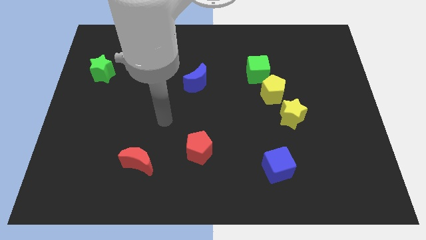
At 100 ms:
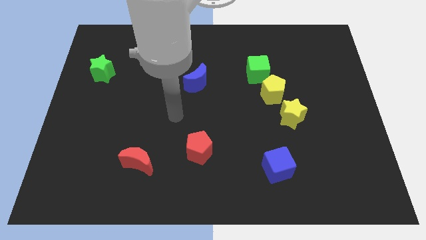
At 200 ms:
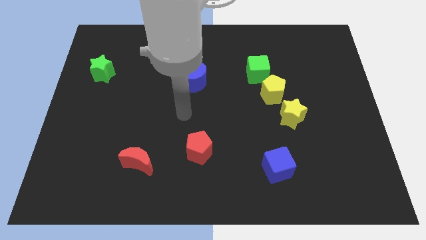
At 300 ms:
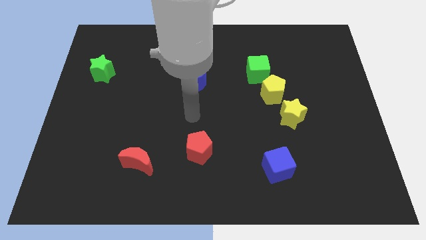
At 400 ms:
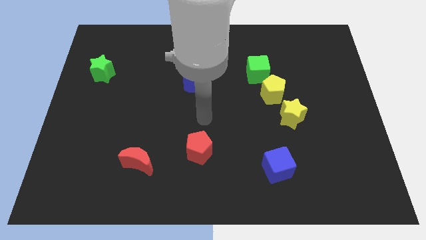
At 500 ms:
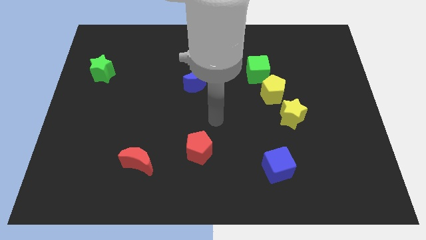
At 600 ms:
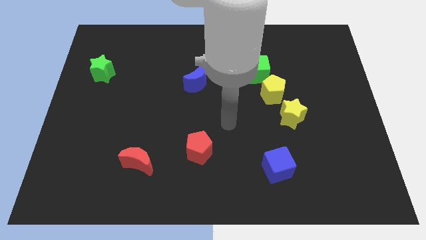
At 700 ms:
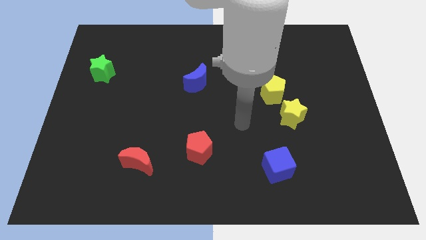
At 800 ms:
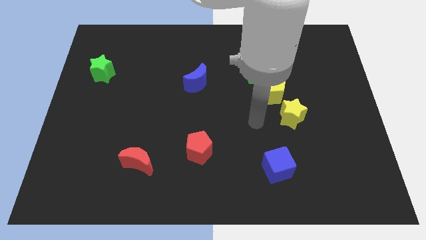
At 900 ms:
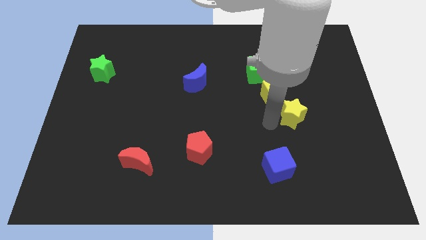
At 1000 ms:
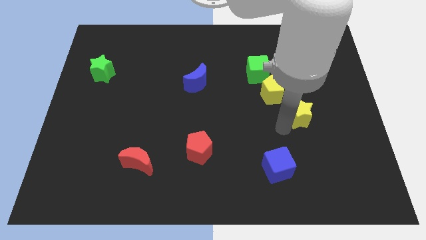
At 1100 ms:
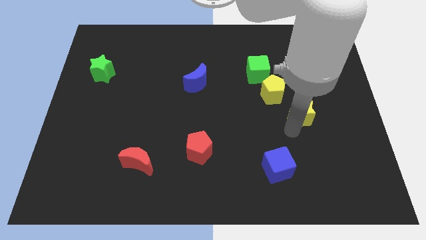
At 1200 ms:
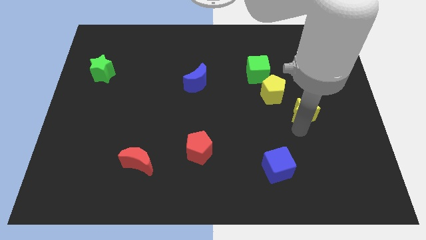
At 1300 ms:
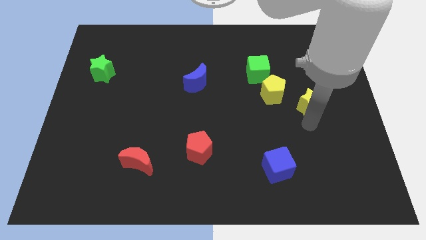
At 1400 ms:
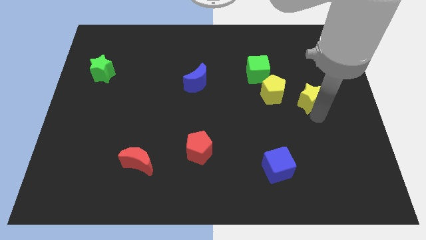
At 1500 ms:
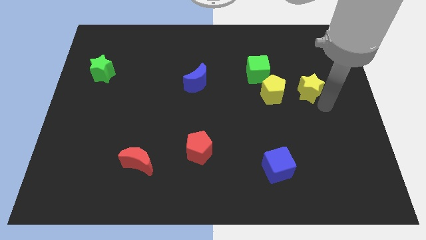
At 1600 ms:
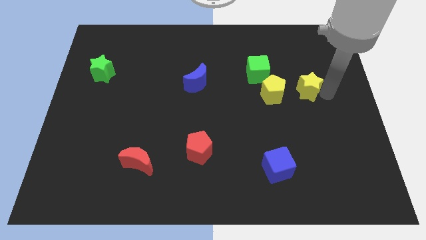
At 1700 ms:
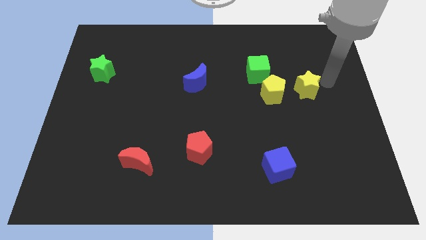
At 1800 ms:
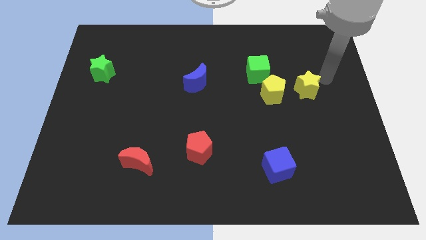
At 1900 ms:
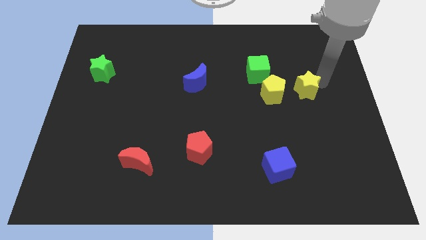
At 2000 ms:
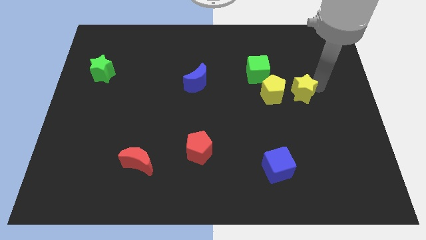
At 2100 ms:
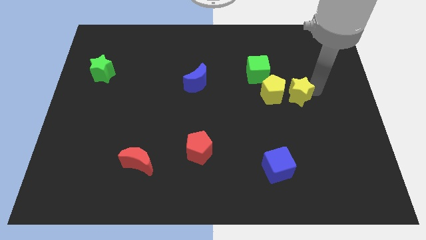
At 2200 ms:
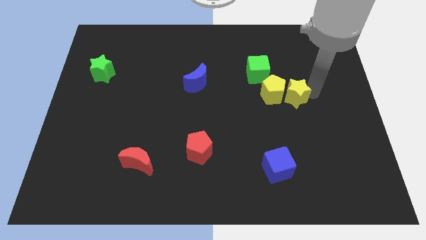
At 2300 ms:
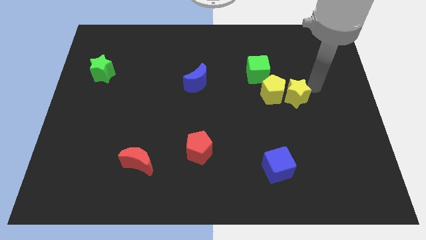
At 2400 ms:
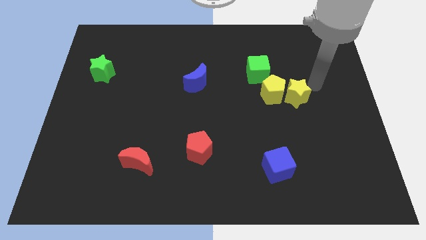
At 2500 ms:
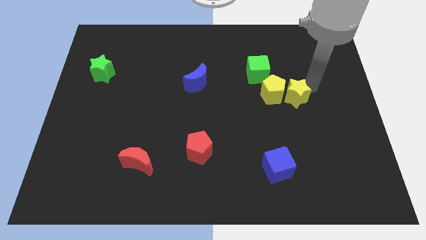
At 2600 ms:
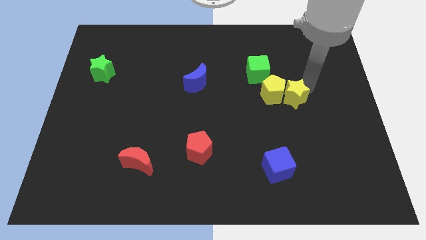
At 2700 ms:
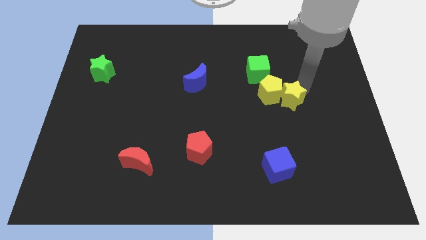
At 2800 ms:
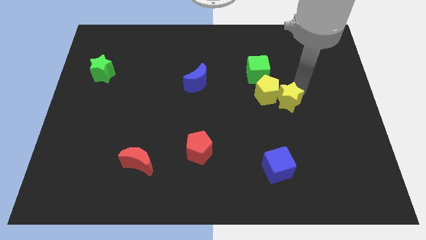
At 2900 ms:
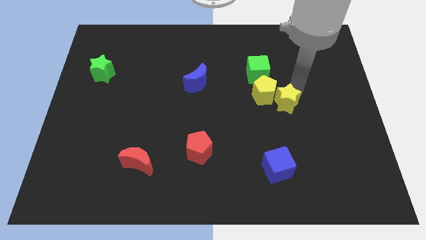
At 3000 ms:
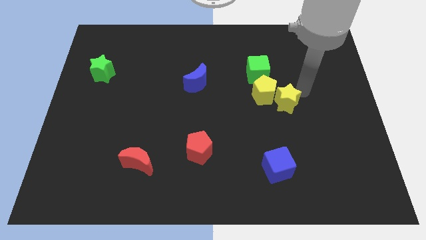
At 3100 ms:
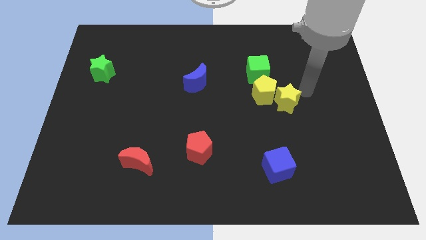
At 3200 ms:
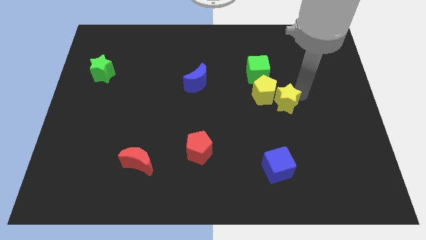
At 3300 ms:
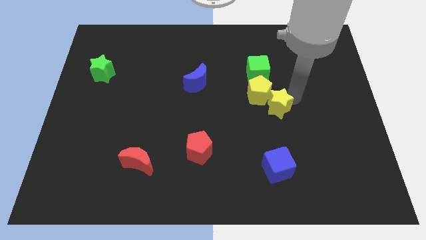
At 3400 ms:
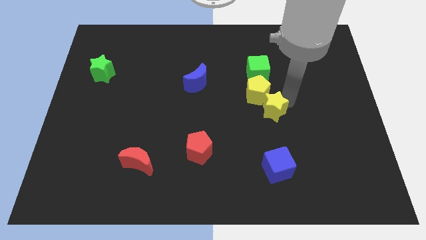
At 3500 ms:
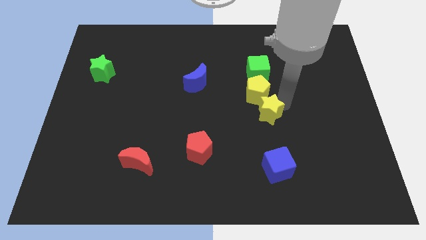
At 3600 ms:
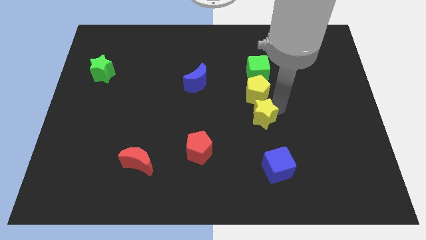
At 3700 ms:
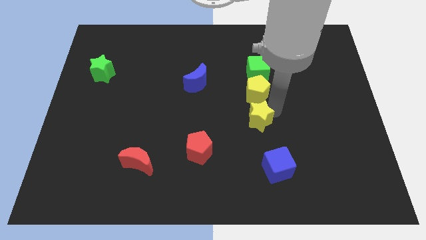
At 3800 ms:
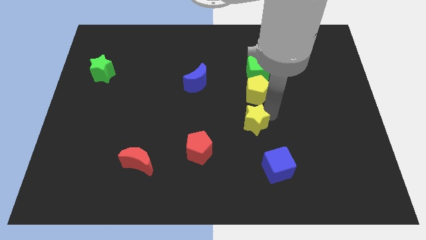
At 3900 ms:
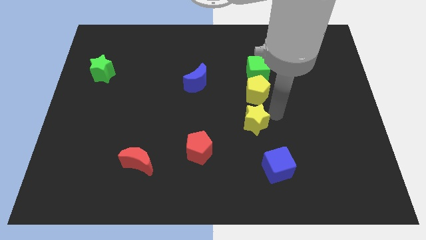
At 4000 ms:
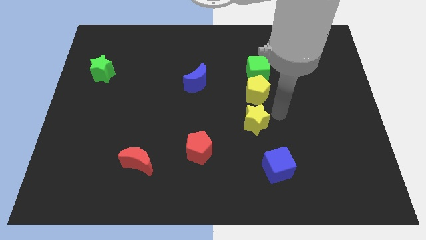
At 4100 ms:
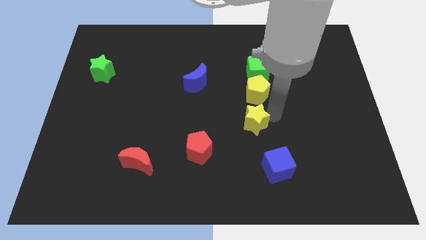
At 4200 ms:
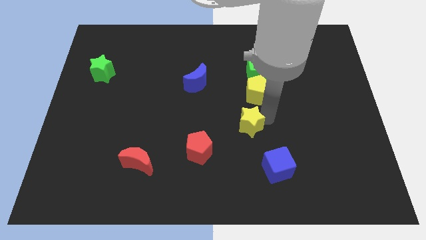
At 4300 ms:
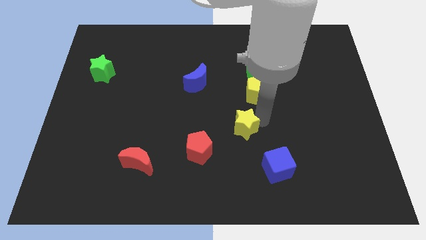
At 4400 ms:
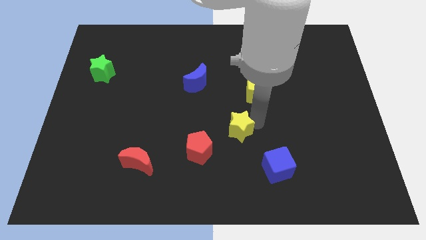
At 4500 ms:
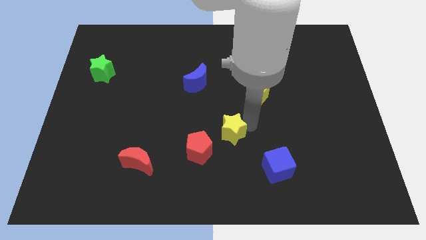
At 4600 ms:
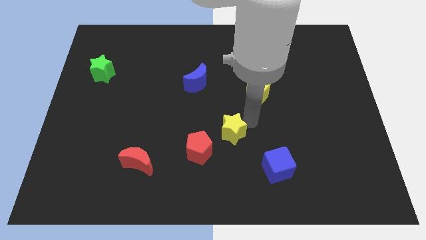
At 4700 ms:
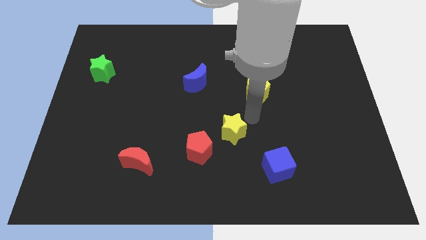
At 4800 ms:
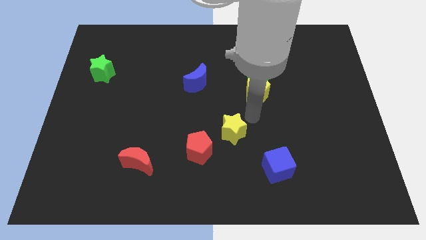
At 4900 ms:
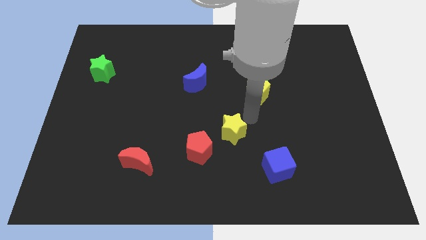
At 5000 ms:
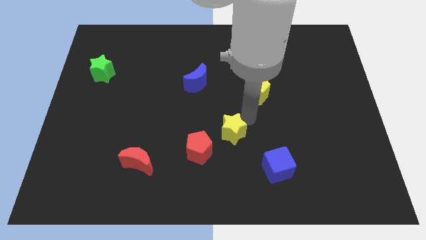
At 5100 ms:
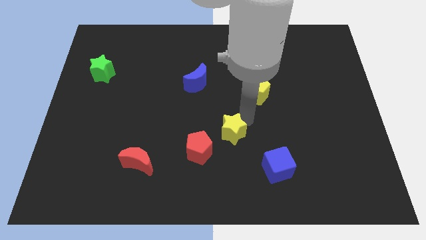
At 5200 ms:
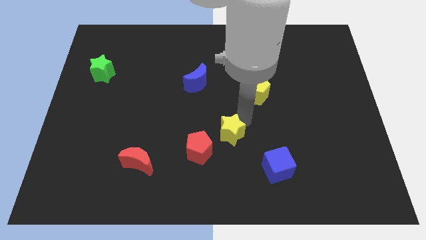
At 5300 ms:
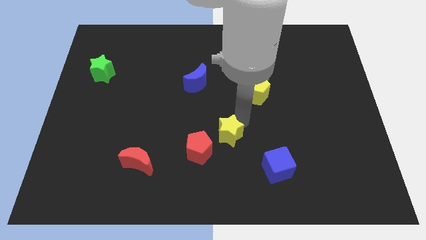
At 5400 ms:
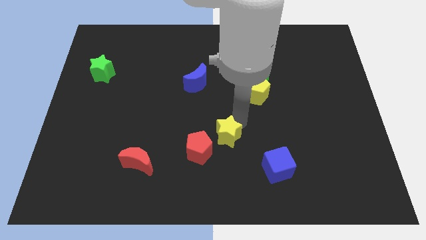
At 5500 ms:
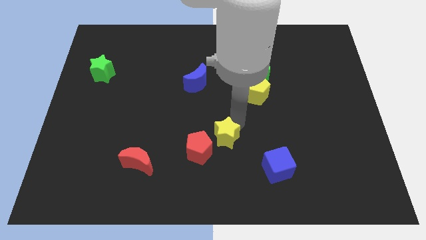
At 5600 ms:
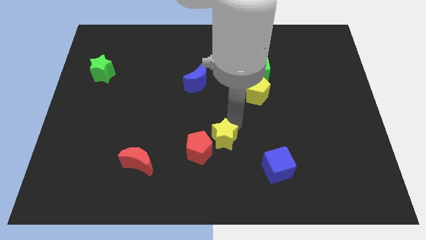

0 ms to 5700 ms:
move the yellow star to the red pentagon

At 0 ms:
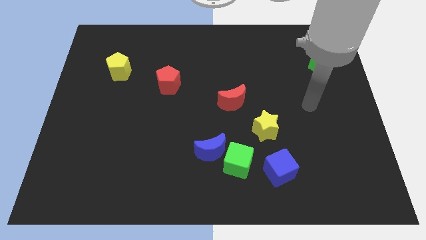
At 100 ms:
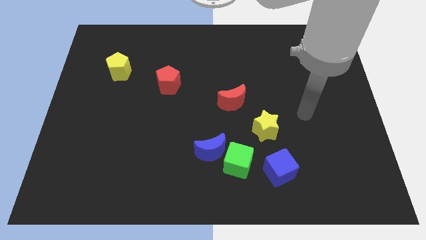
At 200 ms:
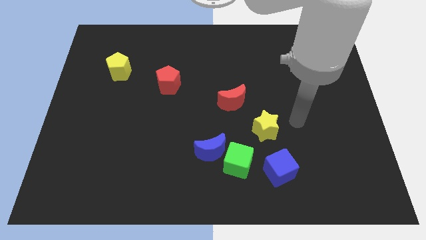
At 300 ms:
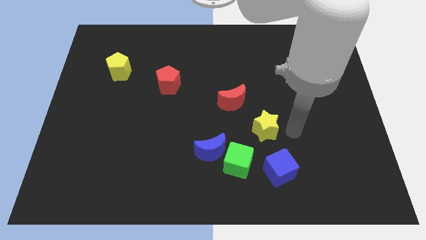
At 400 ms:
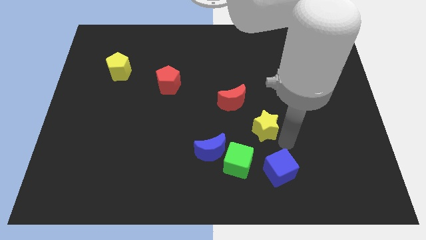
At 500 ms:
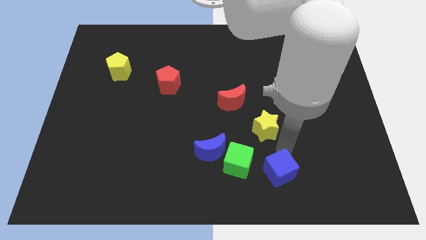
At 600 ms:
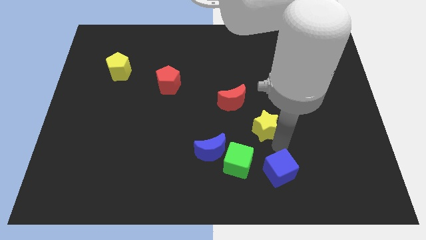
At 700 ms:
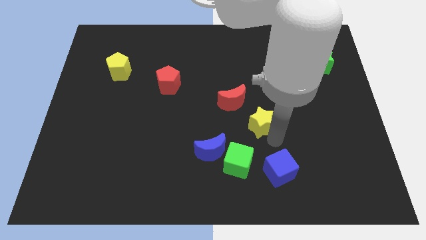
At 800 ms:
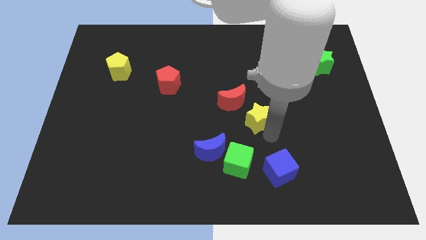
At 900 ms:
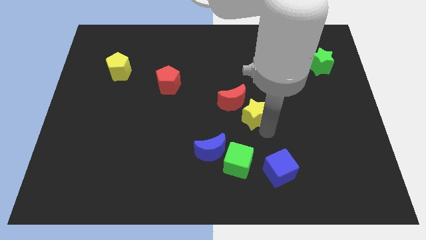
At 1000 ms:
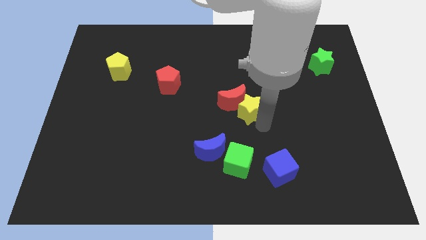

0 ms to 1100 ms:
put the yellow star to the red moon

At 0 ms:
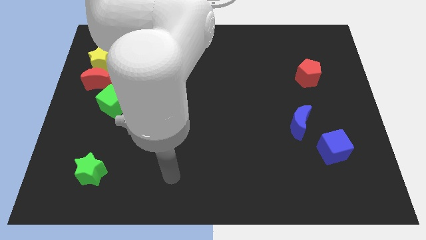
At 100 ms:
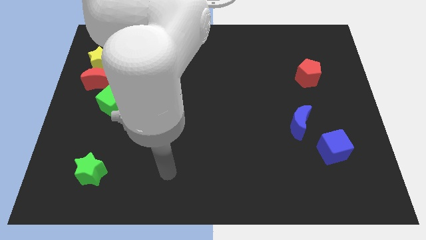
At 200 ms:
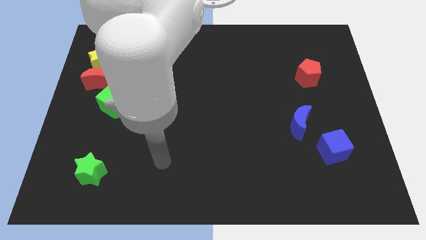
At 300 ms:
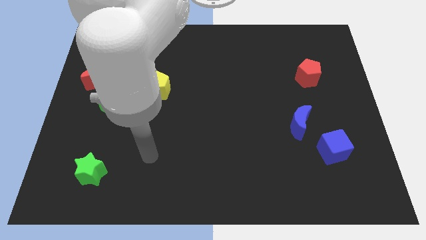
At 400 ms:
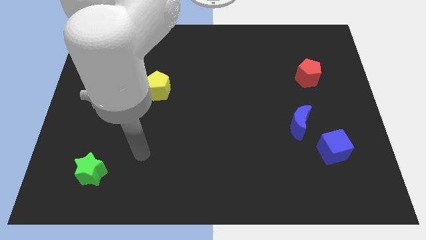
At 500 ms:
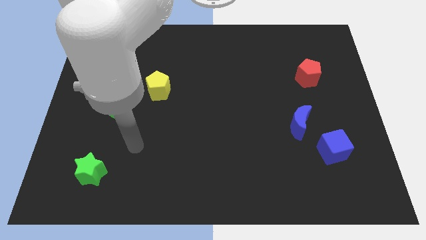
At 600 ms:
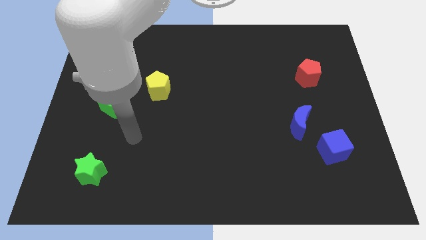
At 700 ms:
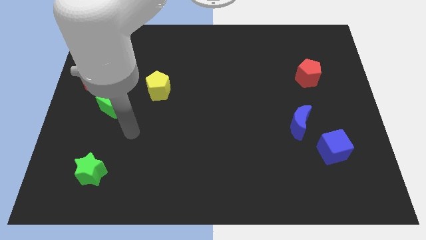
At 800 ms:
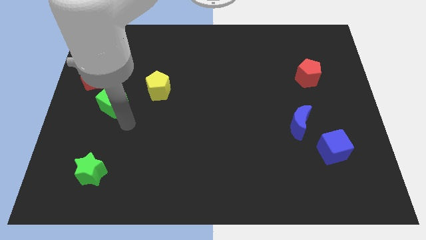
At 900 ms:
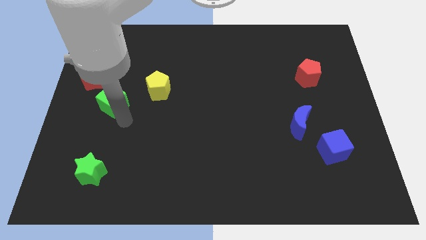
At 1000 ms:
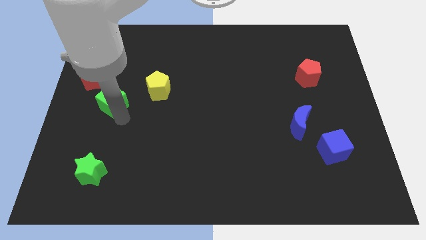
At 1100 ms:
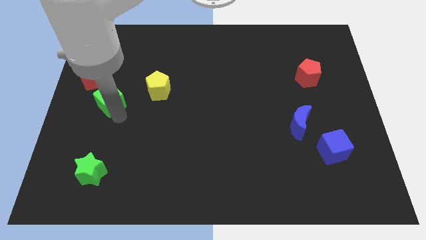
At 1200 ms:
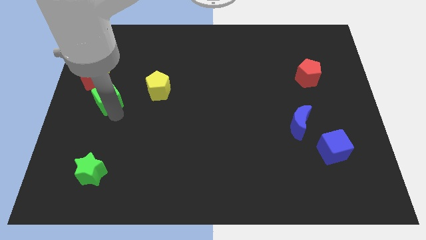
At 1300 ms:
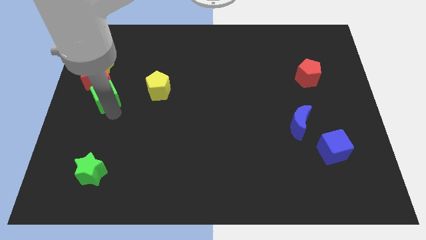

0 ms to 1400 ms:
put the green cube next to the red moon

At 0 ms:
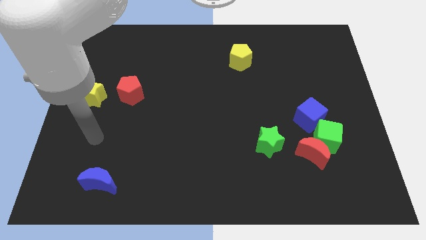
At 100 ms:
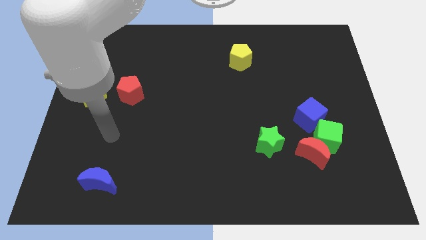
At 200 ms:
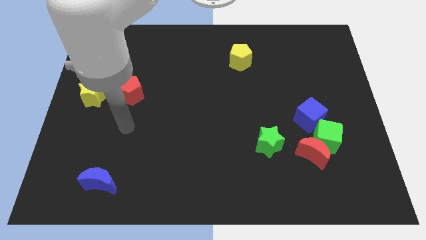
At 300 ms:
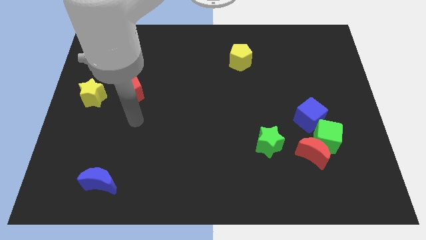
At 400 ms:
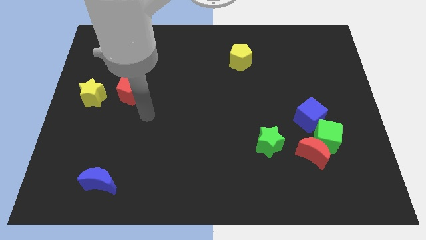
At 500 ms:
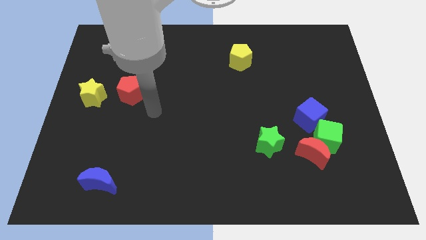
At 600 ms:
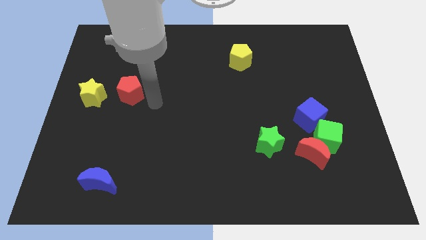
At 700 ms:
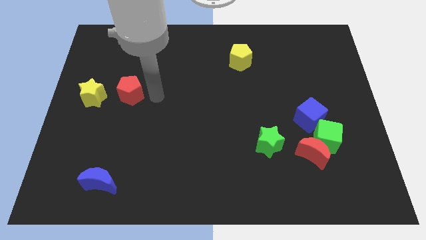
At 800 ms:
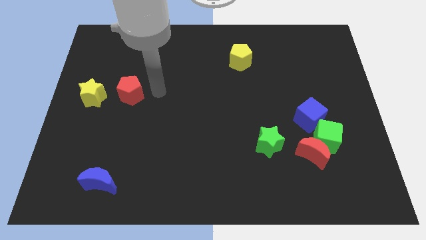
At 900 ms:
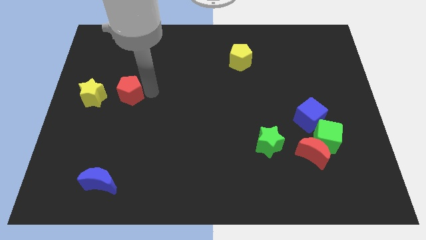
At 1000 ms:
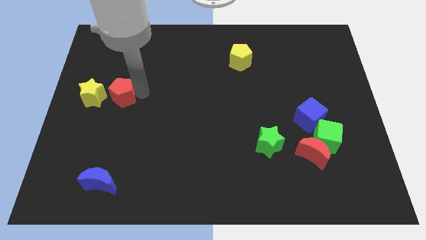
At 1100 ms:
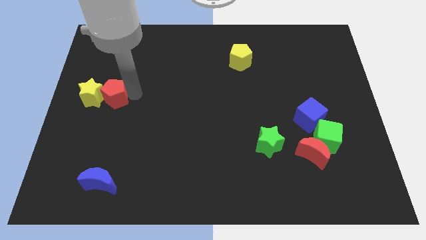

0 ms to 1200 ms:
push the red pentagon close to the yellow star
